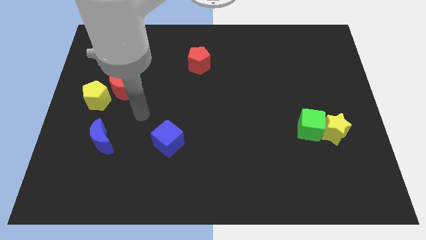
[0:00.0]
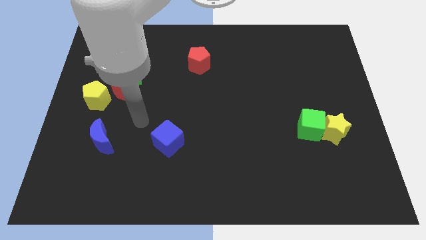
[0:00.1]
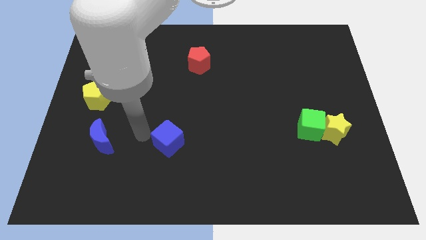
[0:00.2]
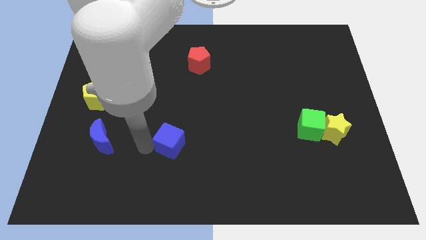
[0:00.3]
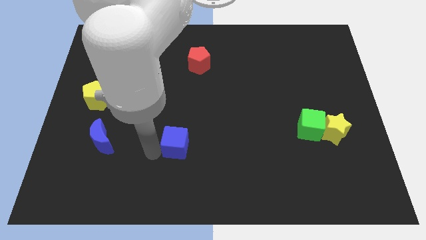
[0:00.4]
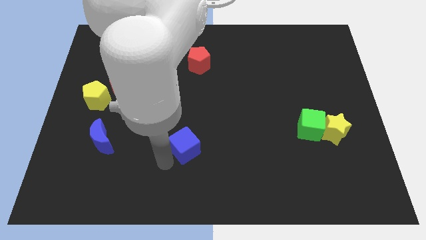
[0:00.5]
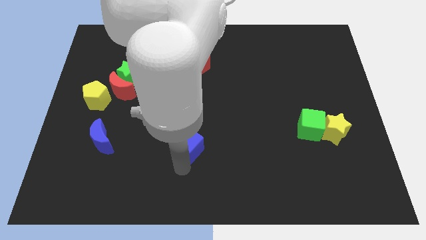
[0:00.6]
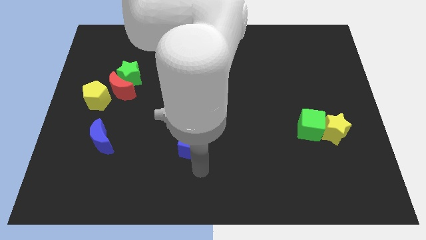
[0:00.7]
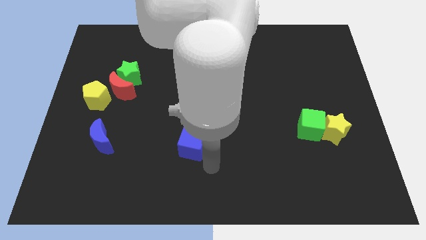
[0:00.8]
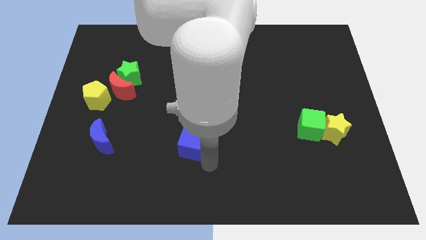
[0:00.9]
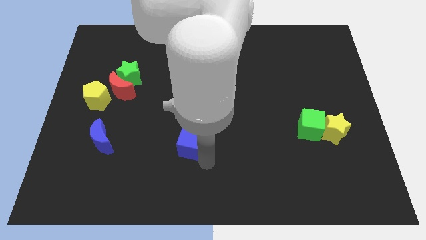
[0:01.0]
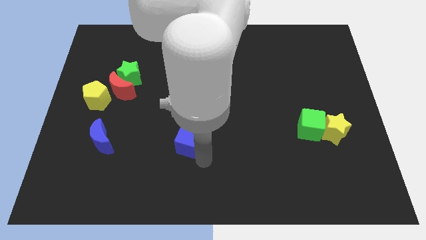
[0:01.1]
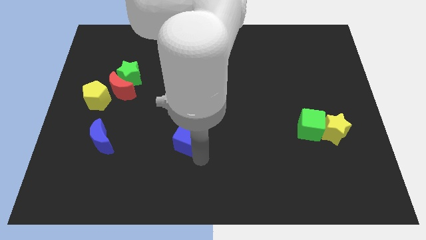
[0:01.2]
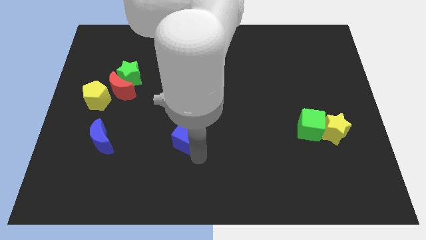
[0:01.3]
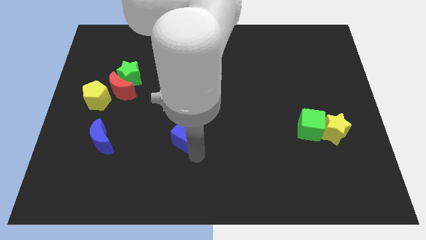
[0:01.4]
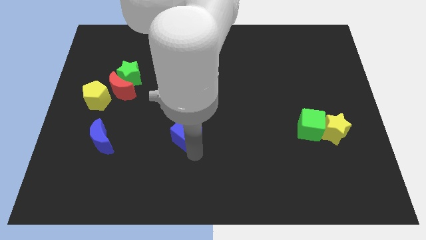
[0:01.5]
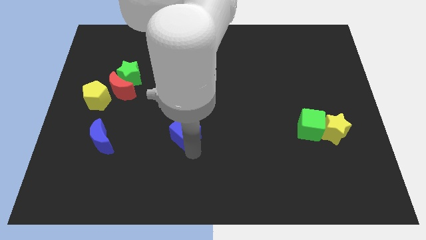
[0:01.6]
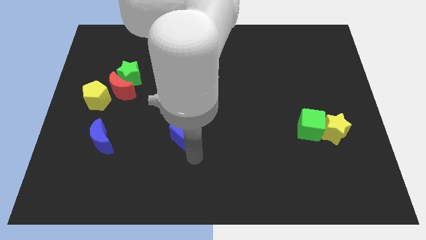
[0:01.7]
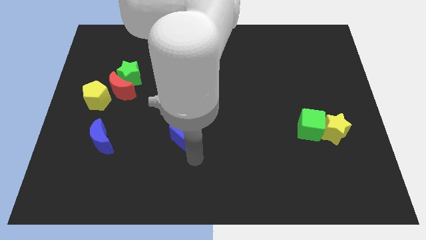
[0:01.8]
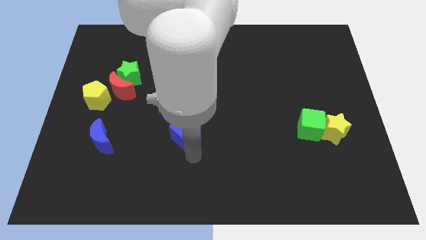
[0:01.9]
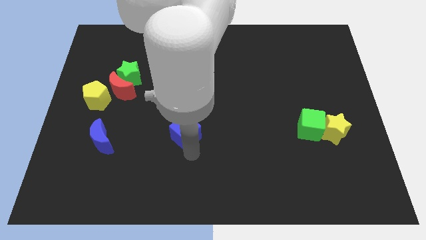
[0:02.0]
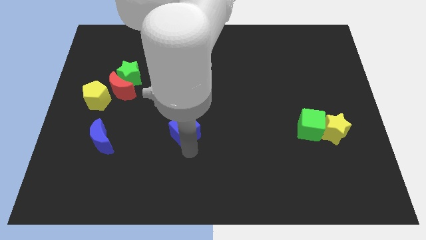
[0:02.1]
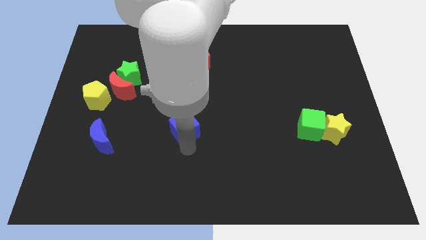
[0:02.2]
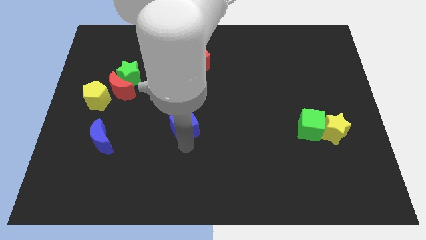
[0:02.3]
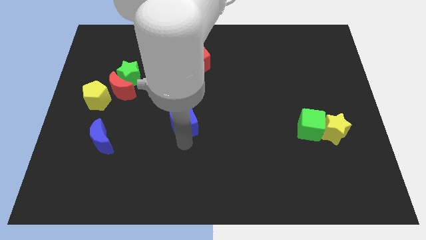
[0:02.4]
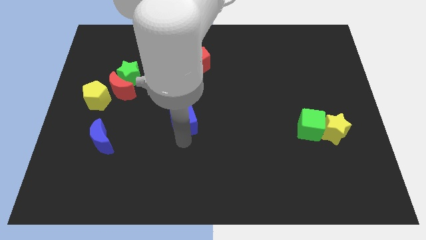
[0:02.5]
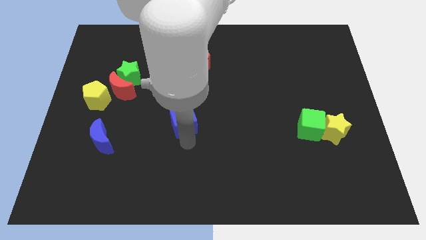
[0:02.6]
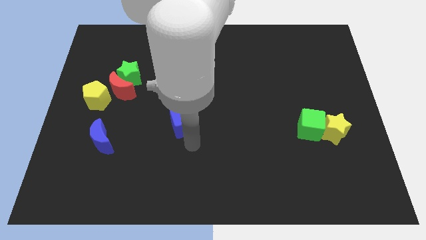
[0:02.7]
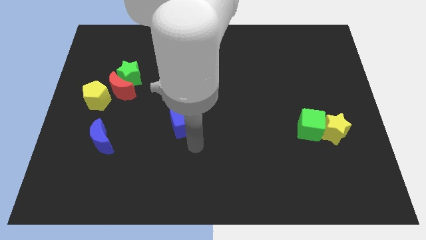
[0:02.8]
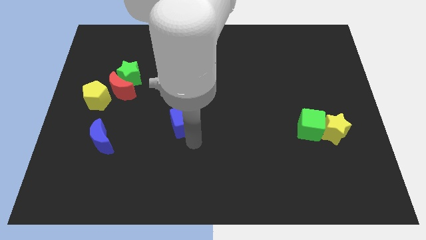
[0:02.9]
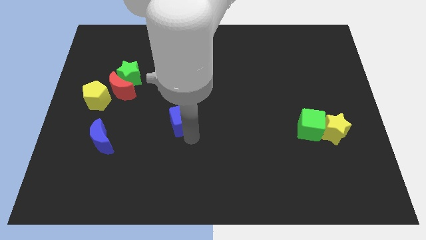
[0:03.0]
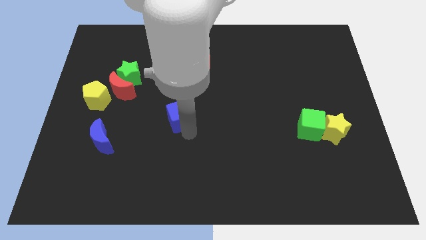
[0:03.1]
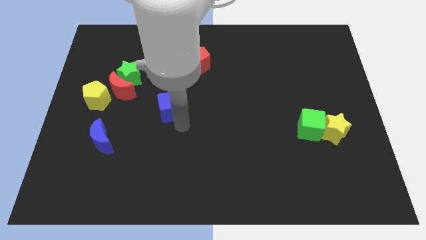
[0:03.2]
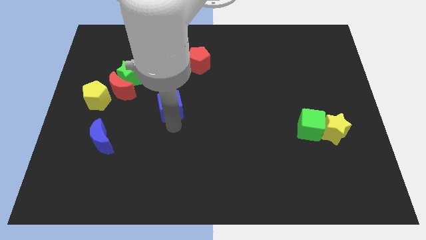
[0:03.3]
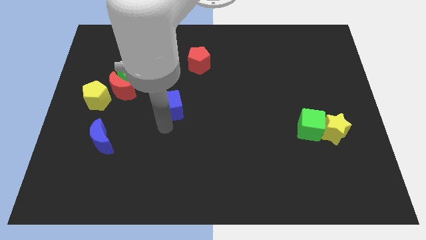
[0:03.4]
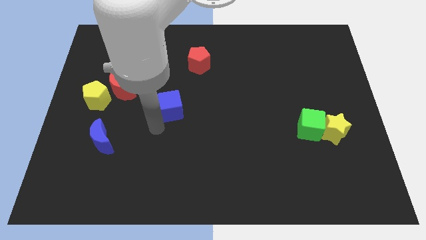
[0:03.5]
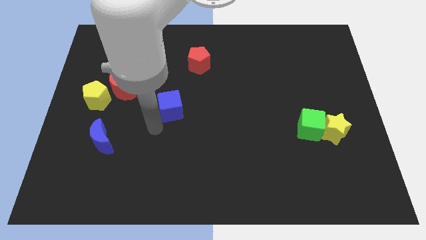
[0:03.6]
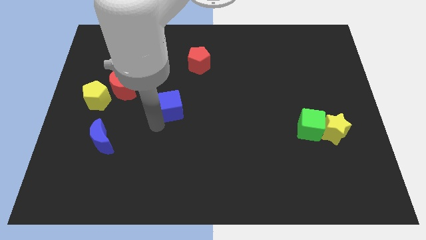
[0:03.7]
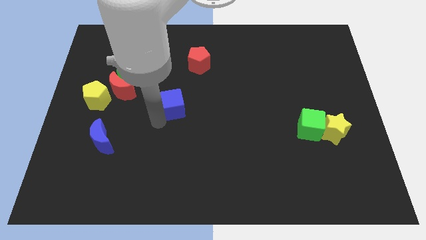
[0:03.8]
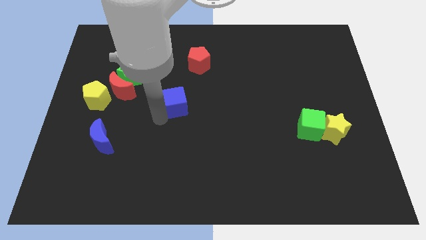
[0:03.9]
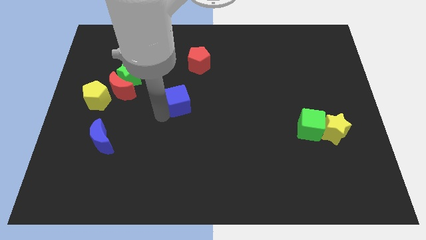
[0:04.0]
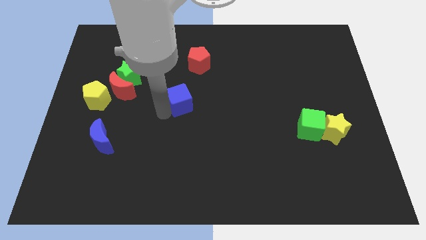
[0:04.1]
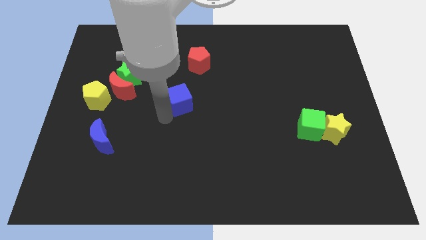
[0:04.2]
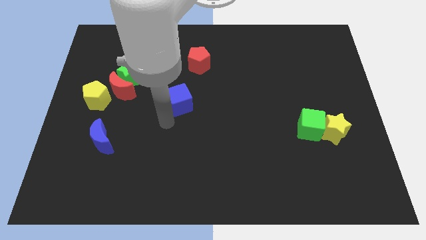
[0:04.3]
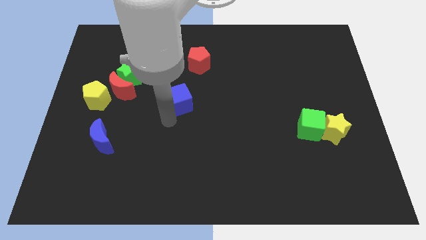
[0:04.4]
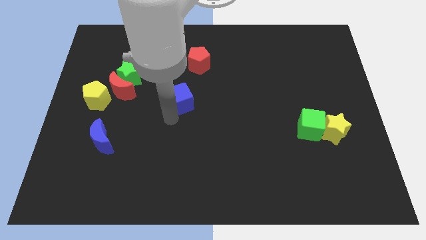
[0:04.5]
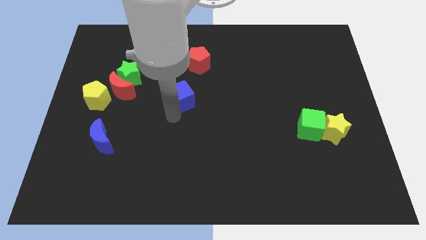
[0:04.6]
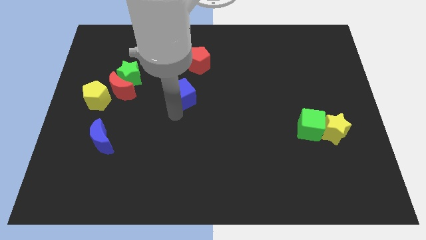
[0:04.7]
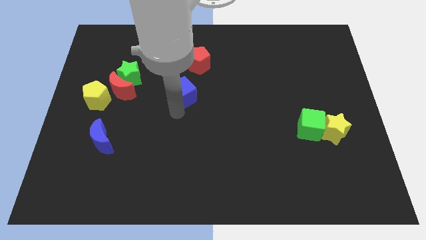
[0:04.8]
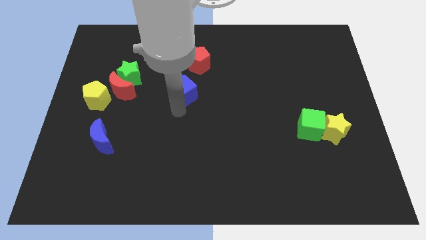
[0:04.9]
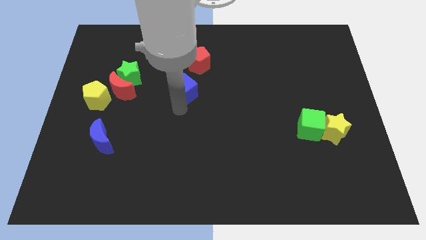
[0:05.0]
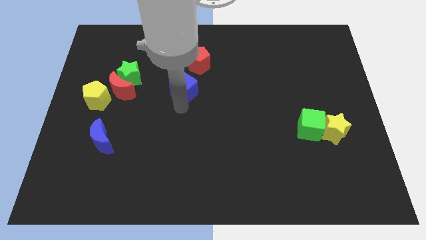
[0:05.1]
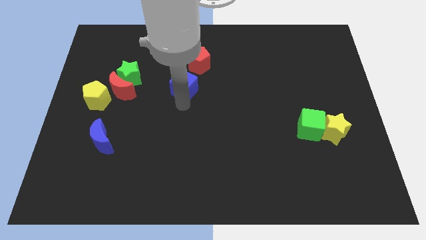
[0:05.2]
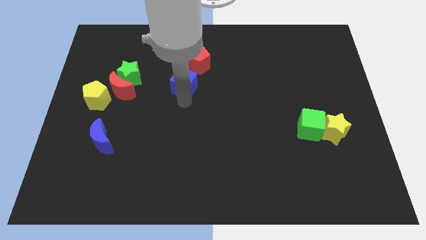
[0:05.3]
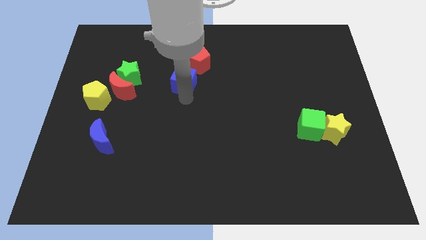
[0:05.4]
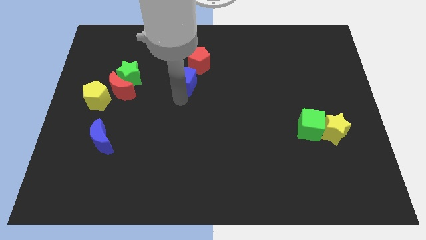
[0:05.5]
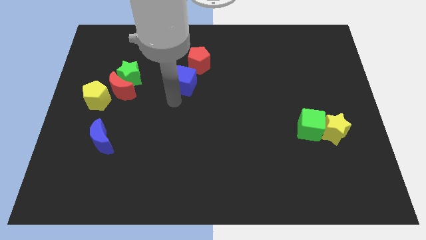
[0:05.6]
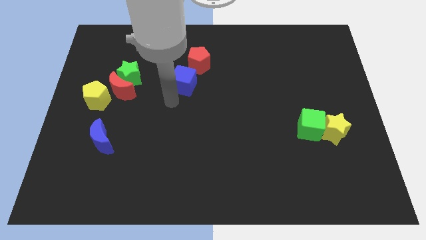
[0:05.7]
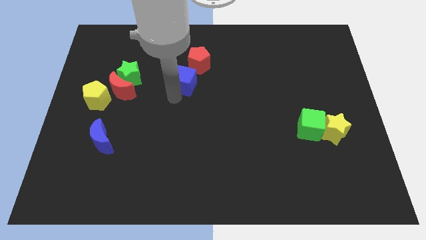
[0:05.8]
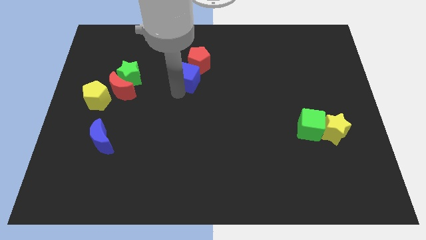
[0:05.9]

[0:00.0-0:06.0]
put the blue cube towards the red pentagon

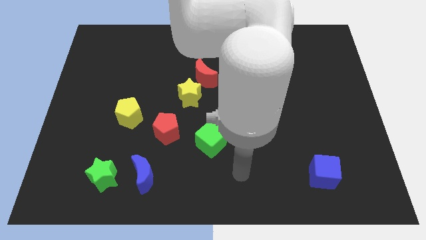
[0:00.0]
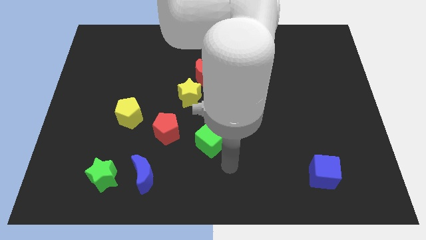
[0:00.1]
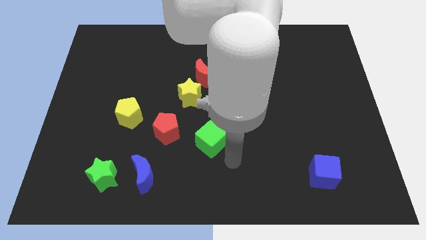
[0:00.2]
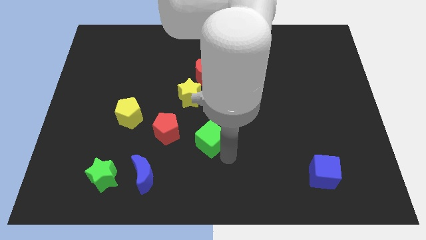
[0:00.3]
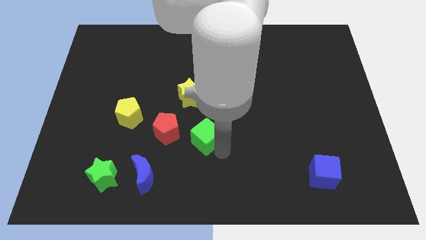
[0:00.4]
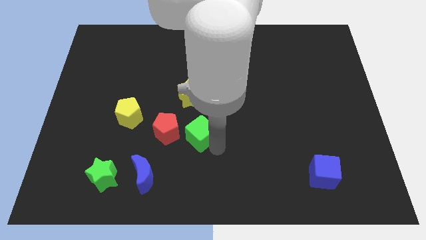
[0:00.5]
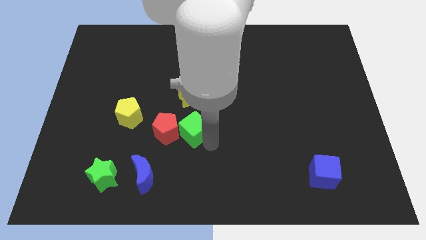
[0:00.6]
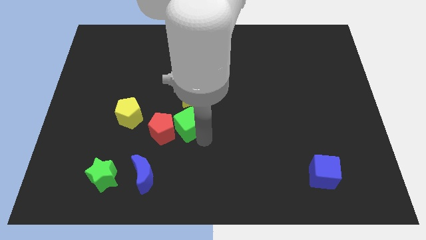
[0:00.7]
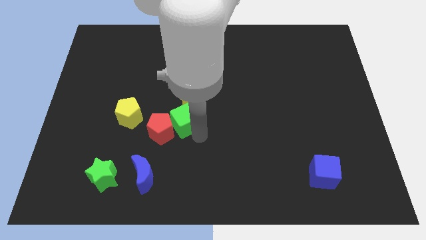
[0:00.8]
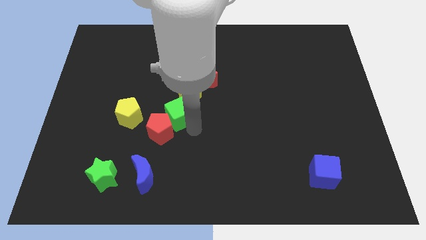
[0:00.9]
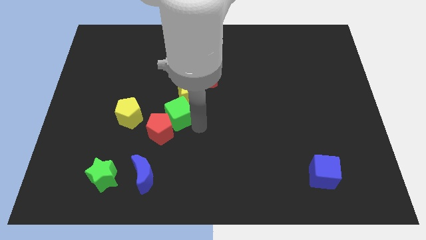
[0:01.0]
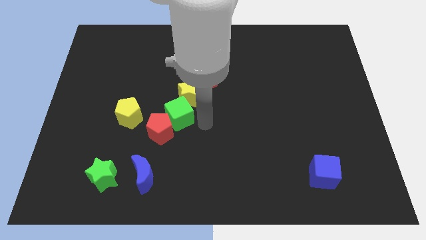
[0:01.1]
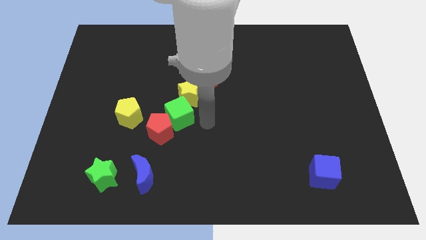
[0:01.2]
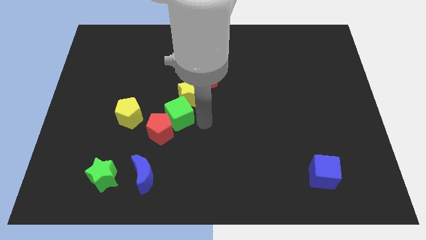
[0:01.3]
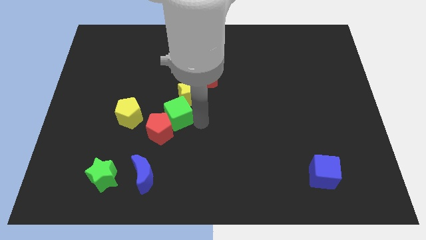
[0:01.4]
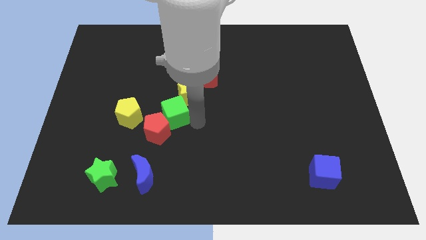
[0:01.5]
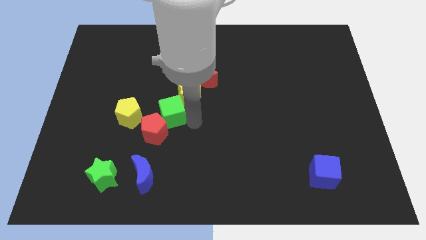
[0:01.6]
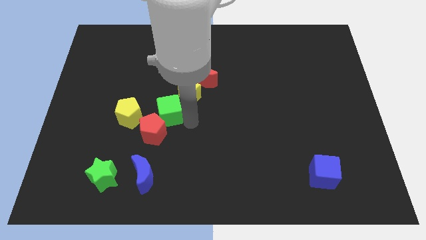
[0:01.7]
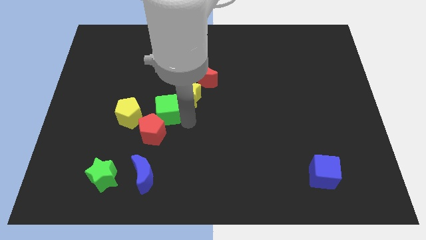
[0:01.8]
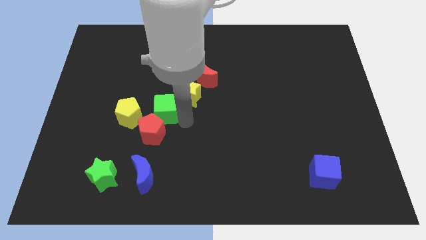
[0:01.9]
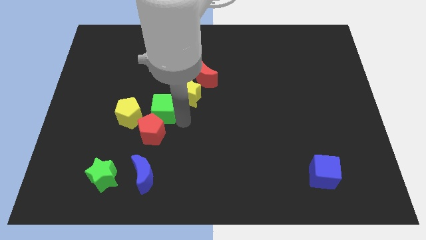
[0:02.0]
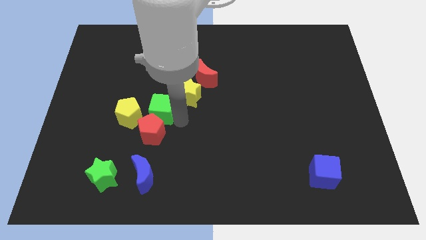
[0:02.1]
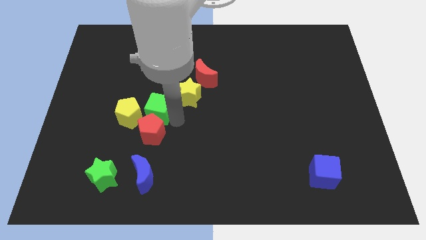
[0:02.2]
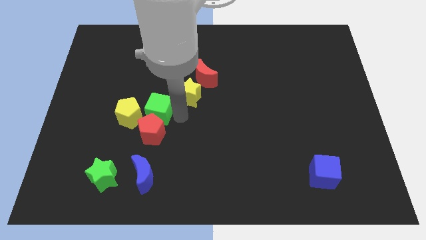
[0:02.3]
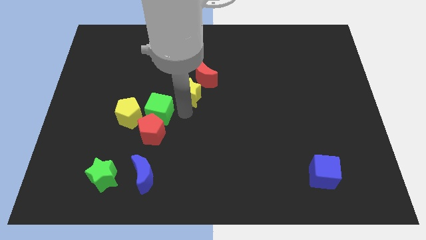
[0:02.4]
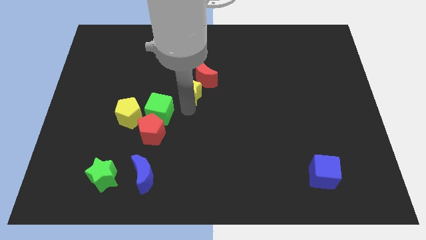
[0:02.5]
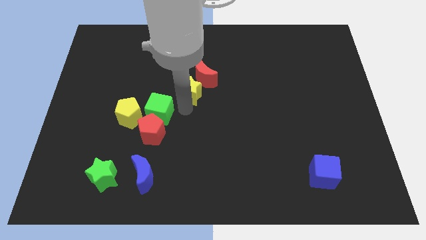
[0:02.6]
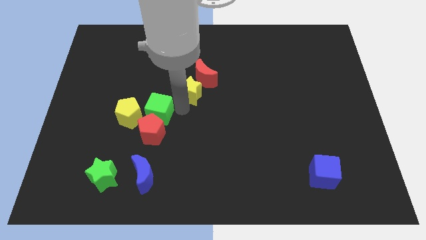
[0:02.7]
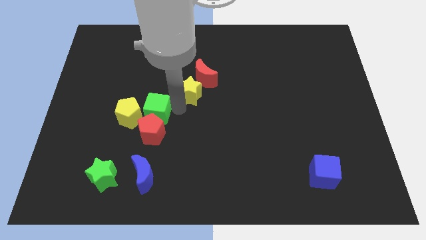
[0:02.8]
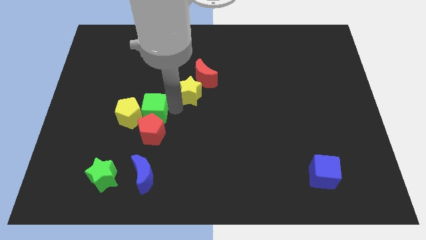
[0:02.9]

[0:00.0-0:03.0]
put the green cube next to the yellow pentagon
